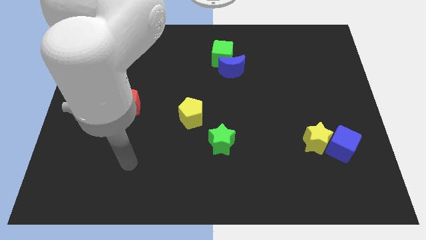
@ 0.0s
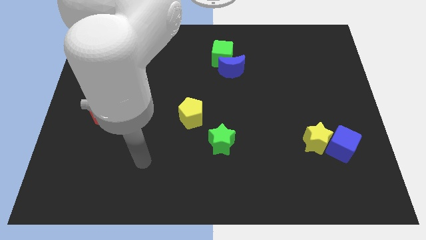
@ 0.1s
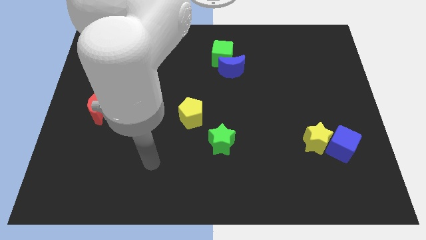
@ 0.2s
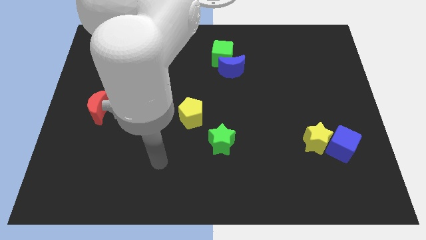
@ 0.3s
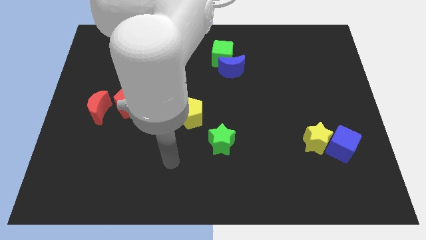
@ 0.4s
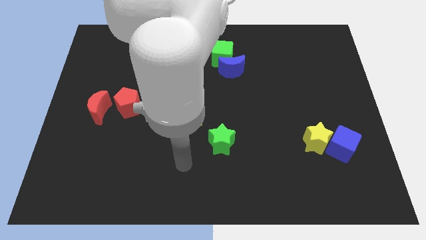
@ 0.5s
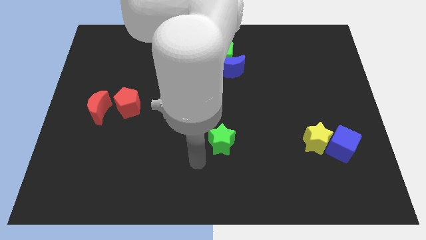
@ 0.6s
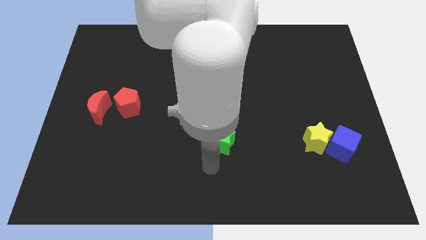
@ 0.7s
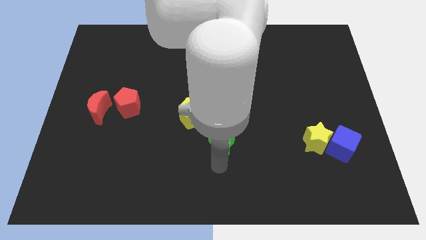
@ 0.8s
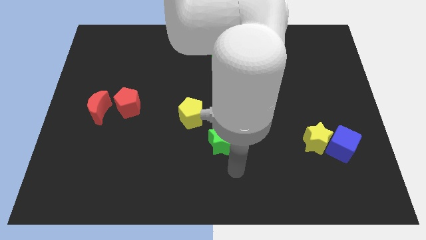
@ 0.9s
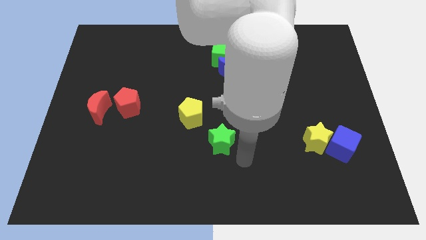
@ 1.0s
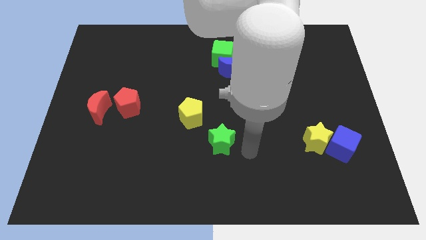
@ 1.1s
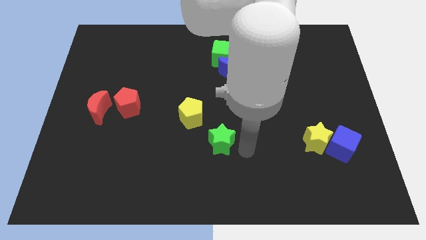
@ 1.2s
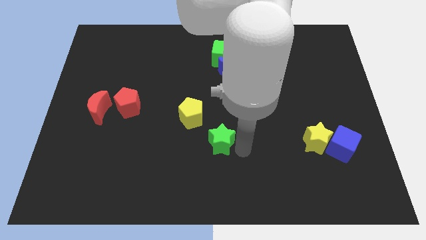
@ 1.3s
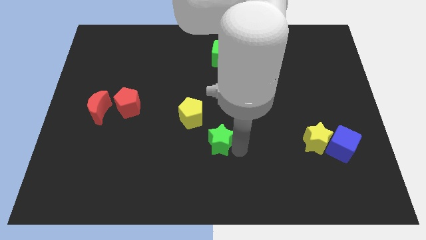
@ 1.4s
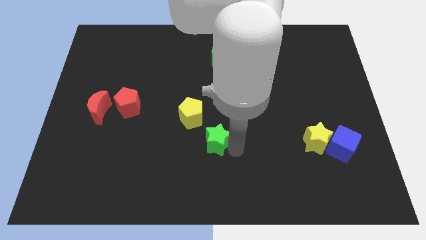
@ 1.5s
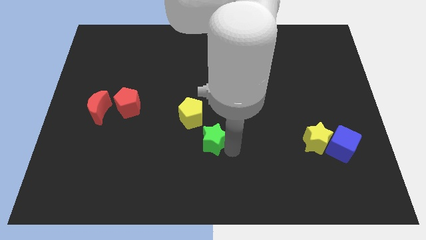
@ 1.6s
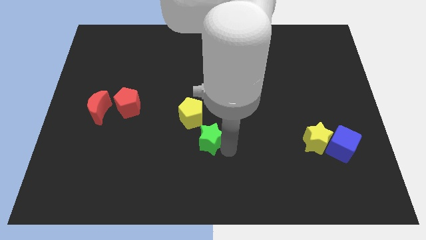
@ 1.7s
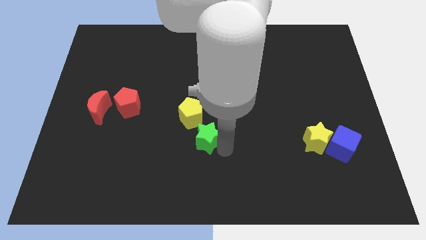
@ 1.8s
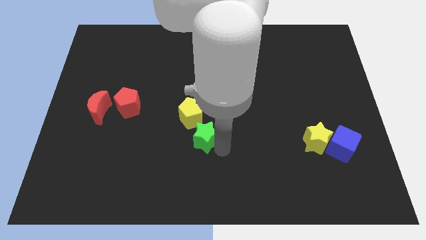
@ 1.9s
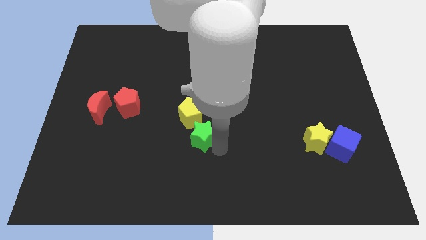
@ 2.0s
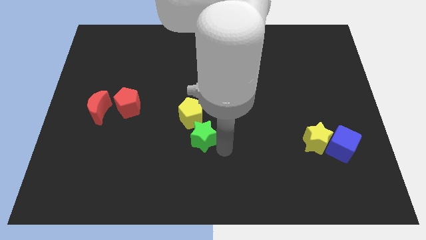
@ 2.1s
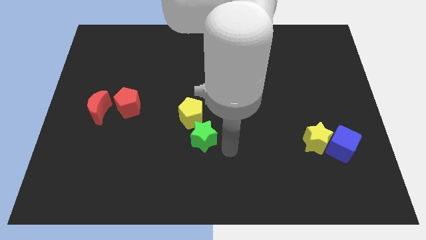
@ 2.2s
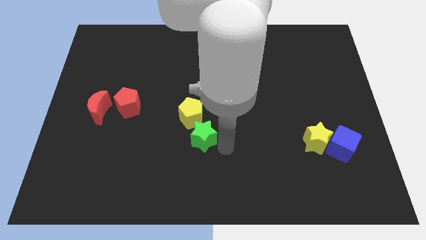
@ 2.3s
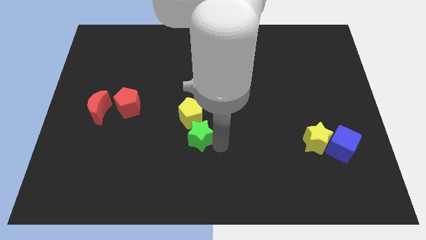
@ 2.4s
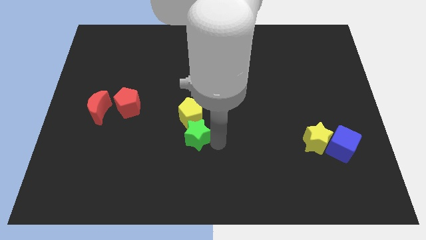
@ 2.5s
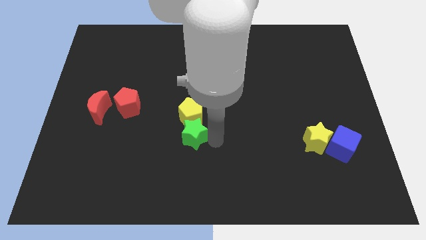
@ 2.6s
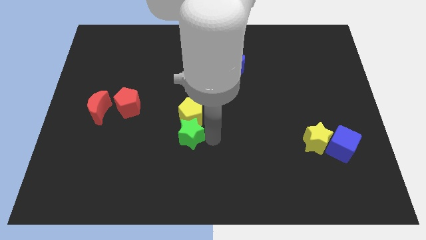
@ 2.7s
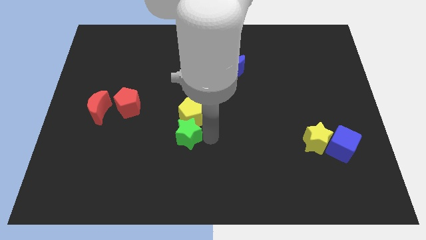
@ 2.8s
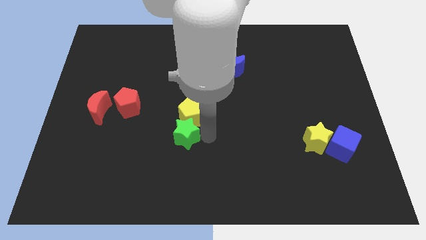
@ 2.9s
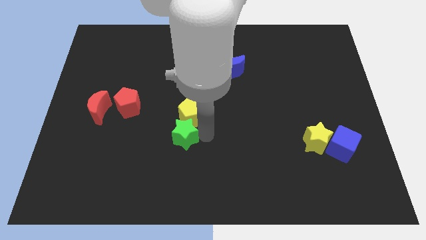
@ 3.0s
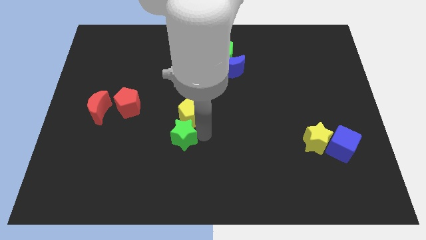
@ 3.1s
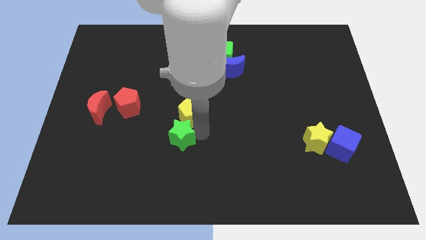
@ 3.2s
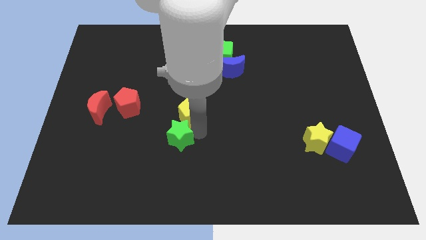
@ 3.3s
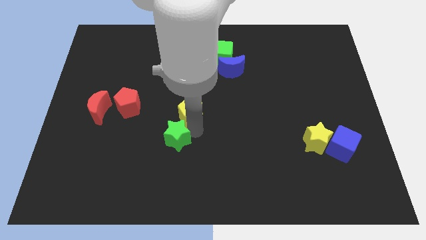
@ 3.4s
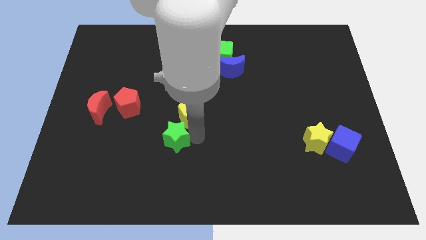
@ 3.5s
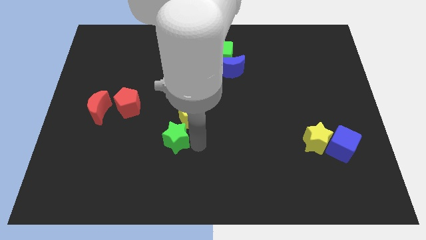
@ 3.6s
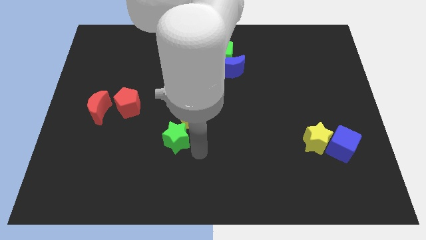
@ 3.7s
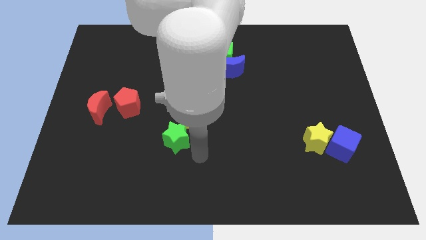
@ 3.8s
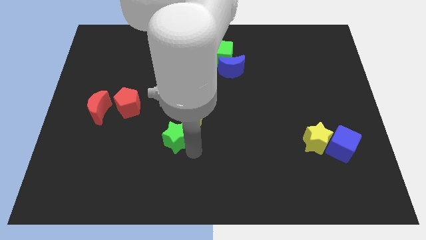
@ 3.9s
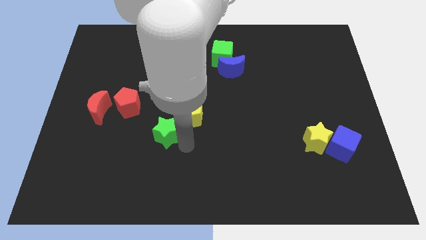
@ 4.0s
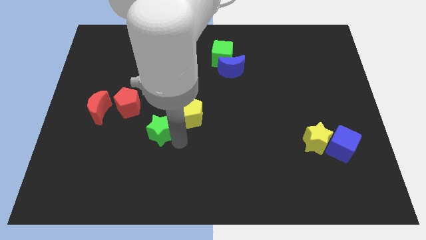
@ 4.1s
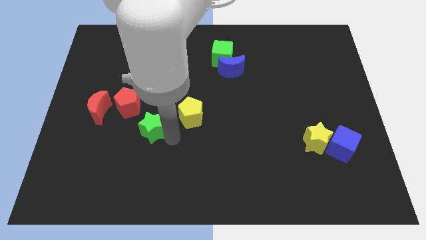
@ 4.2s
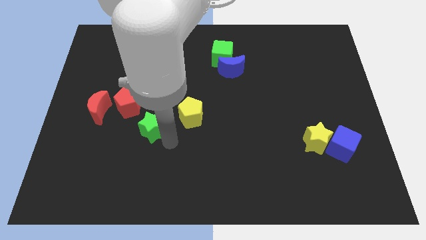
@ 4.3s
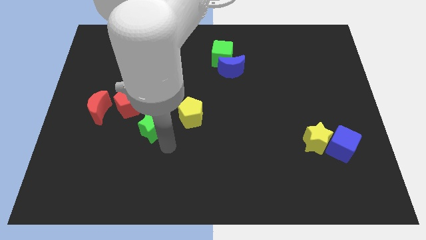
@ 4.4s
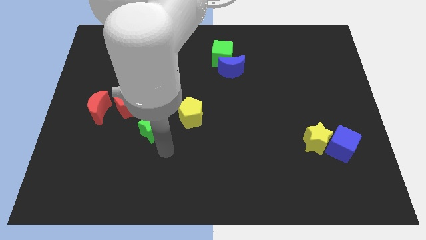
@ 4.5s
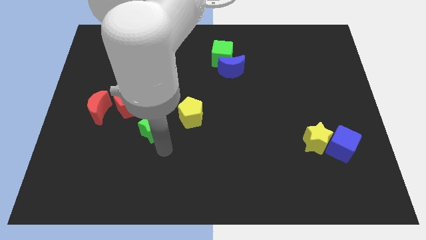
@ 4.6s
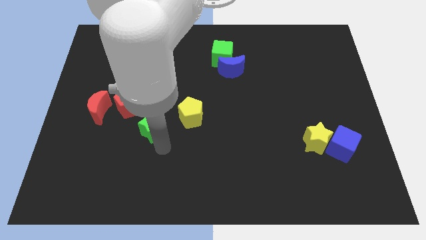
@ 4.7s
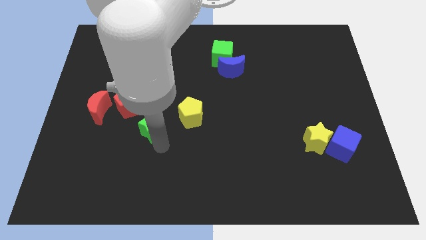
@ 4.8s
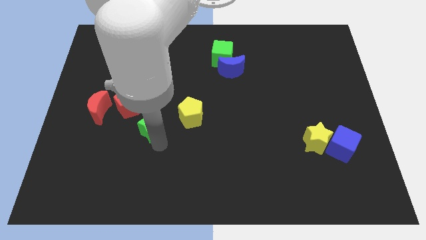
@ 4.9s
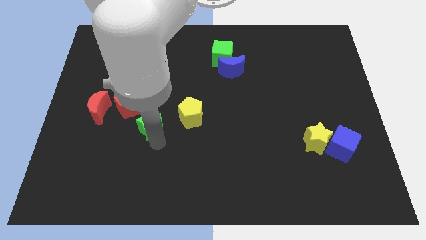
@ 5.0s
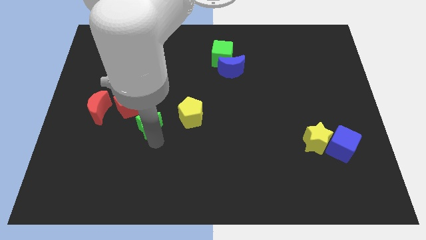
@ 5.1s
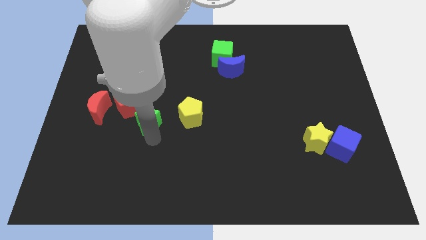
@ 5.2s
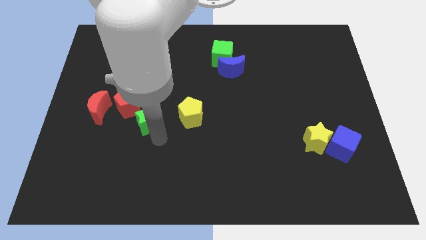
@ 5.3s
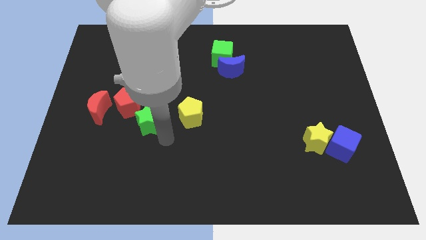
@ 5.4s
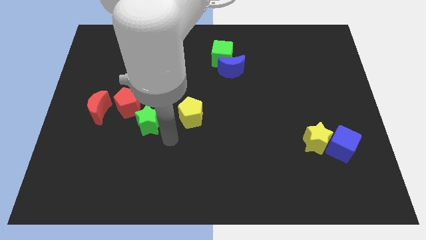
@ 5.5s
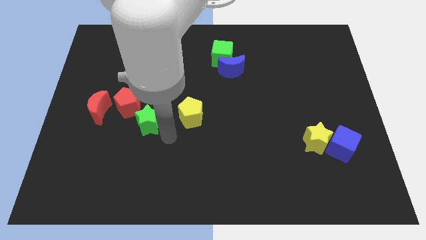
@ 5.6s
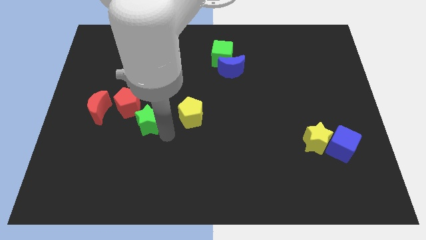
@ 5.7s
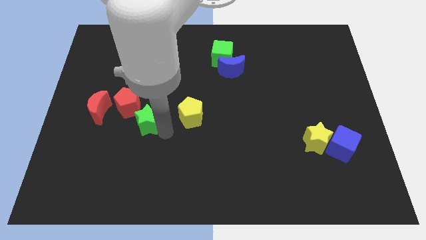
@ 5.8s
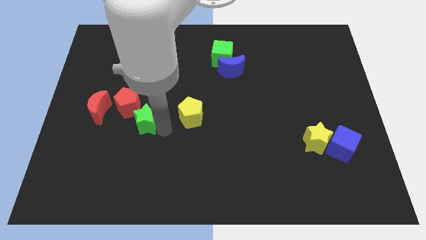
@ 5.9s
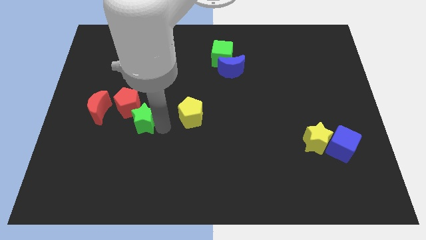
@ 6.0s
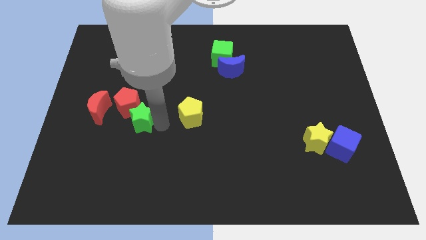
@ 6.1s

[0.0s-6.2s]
move the green star towards the red pentagon

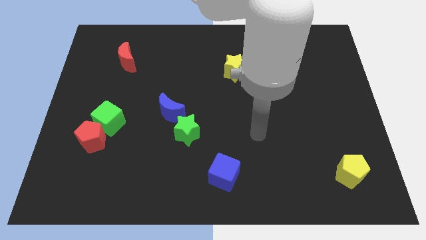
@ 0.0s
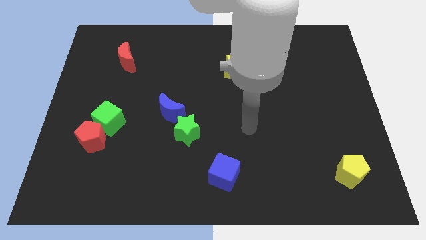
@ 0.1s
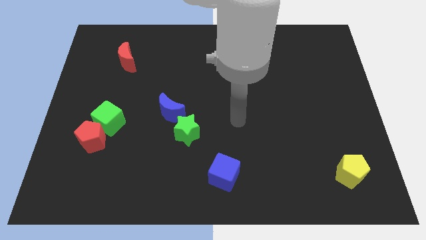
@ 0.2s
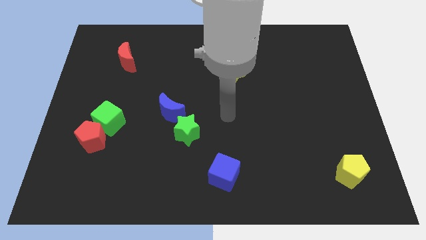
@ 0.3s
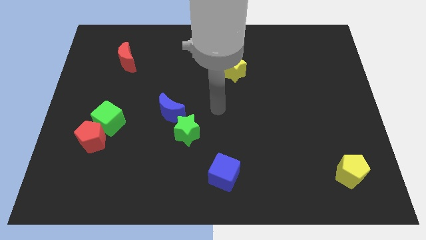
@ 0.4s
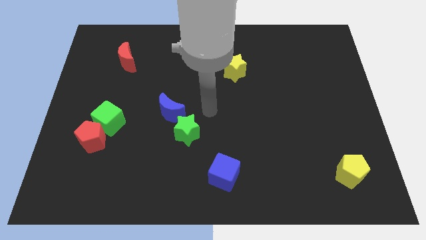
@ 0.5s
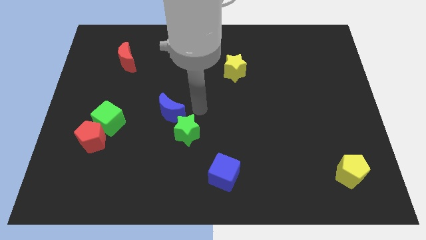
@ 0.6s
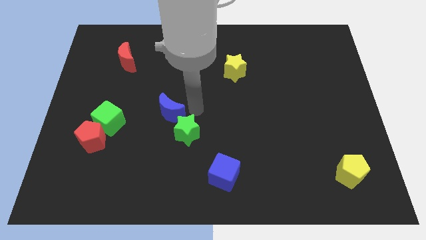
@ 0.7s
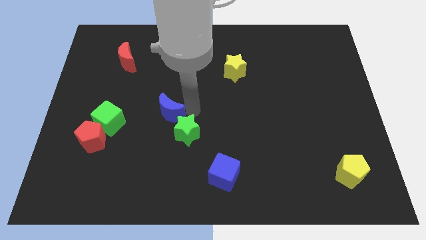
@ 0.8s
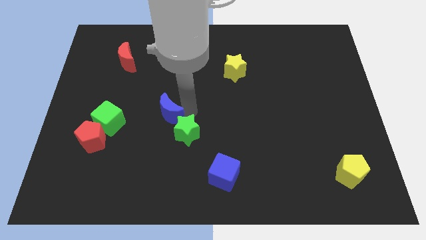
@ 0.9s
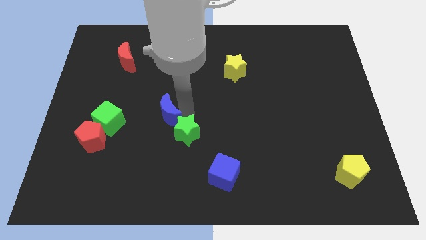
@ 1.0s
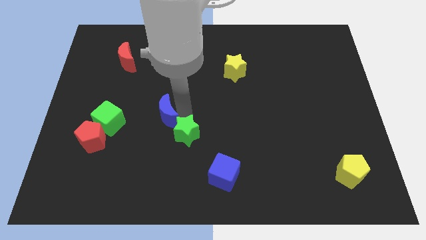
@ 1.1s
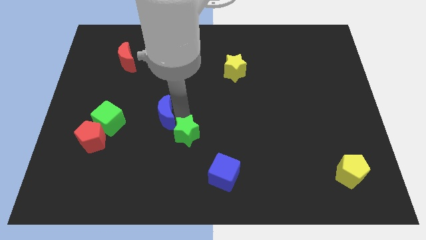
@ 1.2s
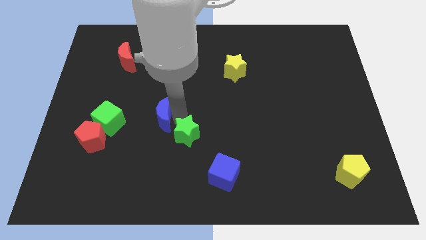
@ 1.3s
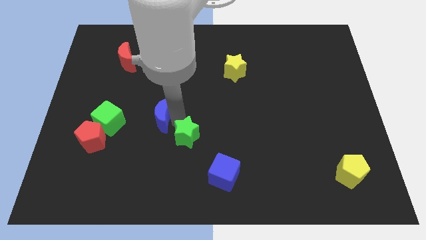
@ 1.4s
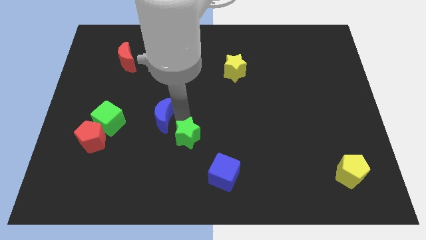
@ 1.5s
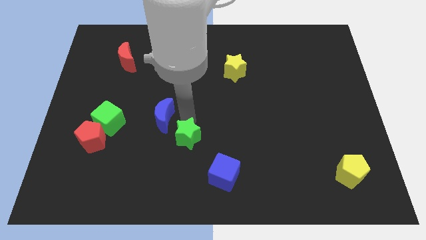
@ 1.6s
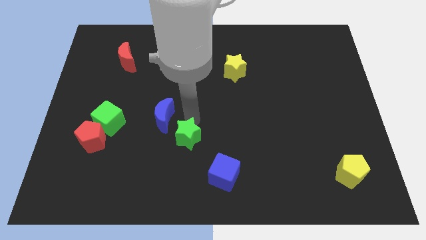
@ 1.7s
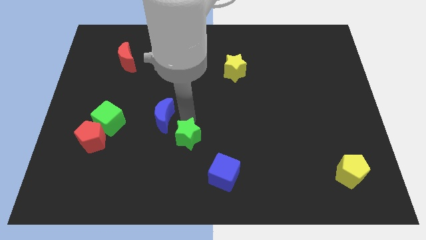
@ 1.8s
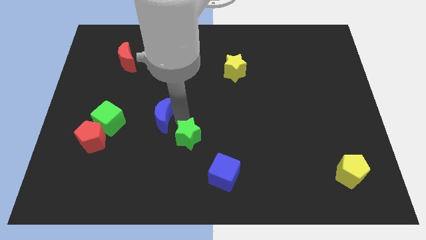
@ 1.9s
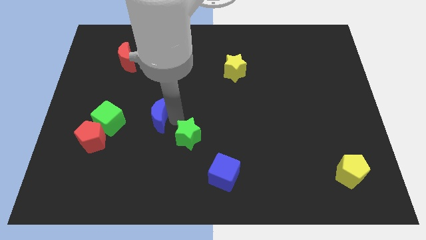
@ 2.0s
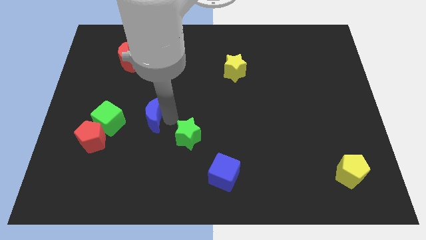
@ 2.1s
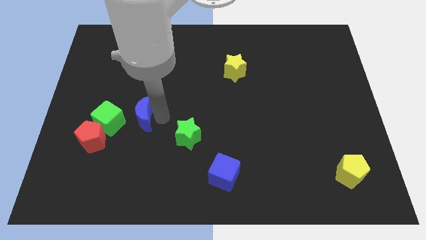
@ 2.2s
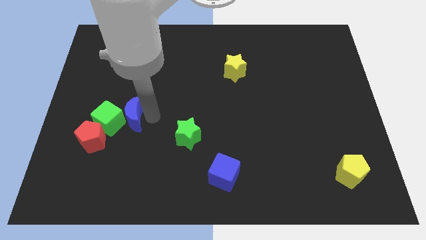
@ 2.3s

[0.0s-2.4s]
slide the blue moon to the green cube
